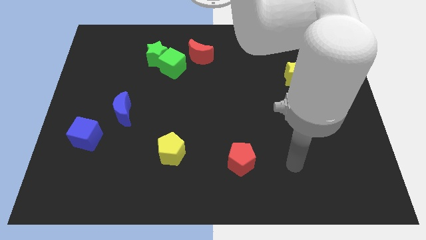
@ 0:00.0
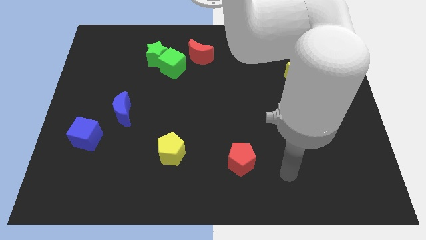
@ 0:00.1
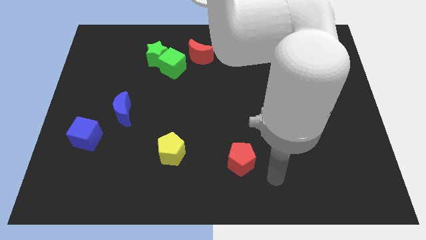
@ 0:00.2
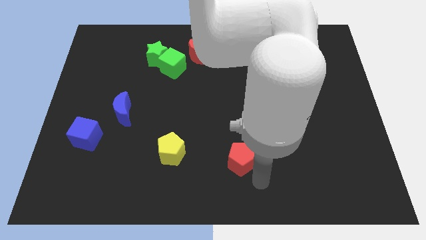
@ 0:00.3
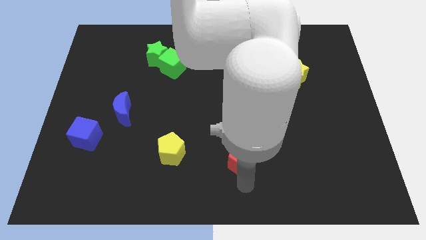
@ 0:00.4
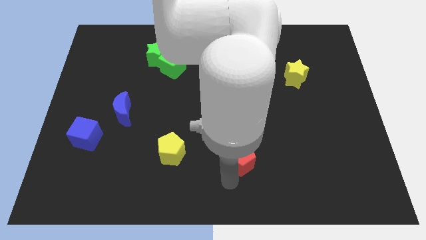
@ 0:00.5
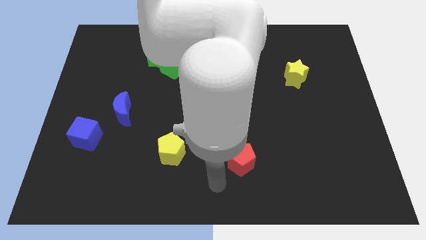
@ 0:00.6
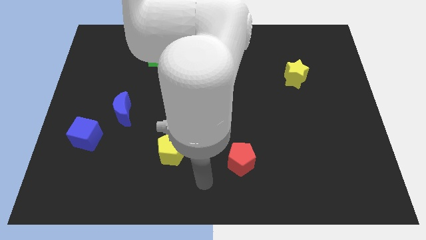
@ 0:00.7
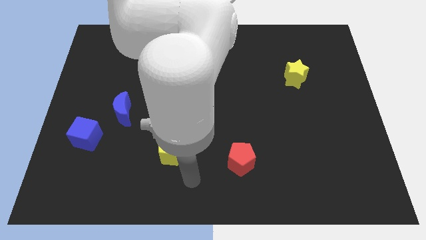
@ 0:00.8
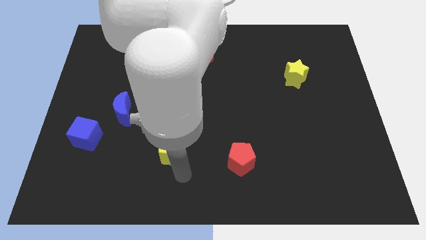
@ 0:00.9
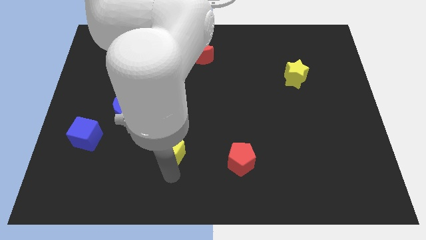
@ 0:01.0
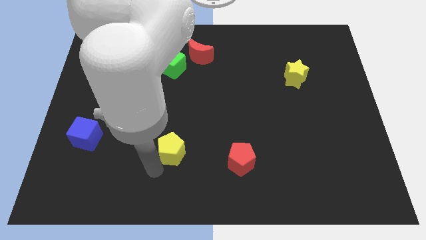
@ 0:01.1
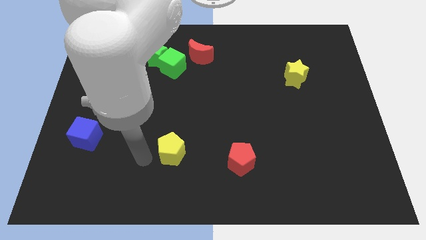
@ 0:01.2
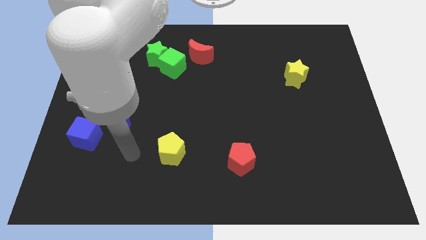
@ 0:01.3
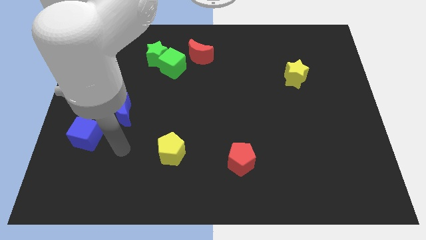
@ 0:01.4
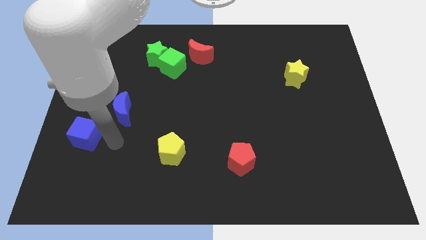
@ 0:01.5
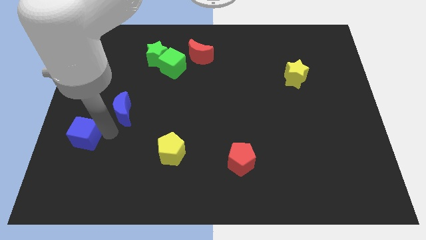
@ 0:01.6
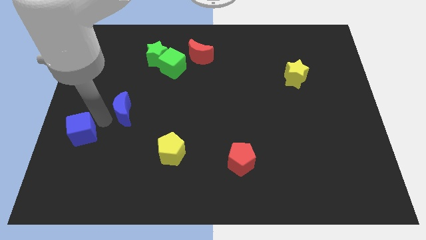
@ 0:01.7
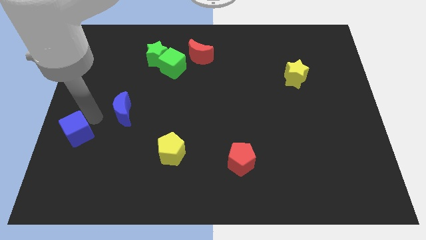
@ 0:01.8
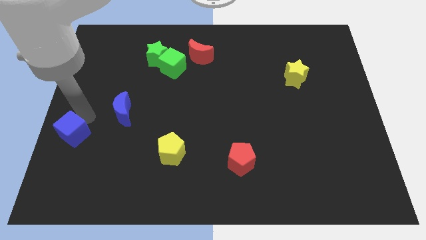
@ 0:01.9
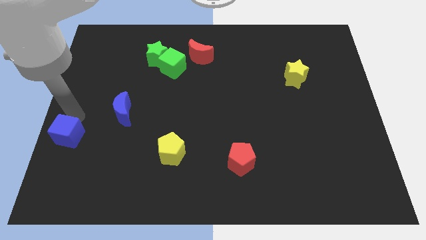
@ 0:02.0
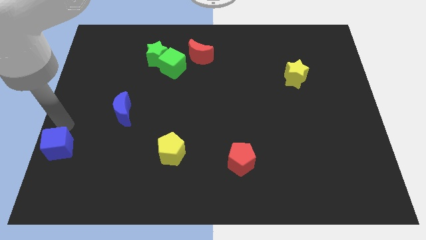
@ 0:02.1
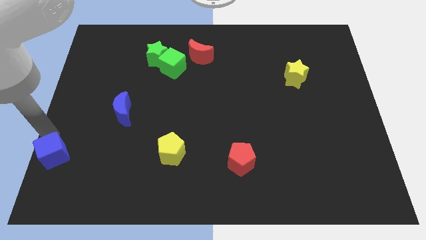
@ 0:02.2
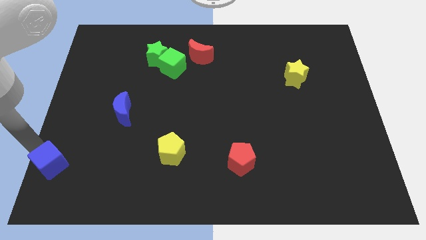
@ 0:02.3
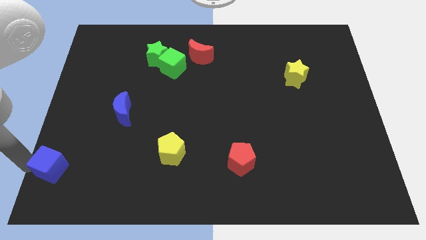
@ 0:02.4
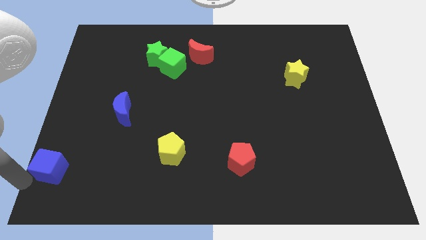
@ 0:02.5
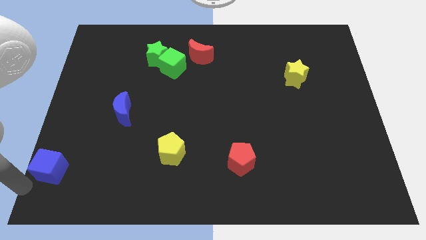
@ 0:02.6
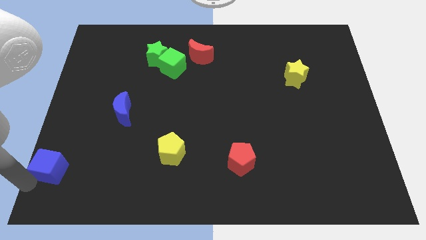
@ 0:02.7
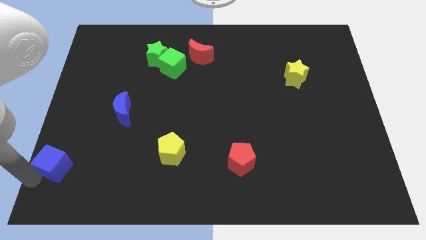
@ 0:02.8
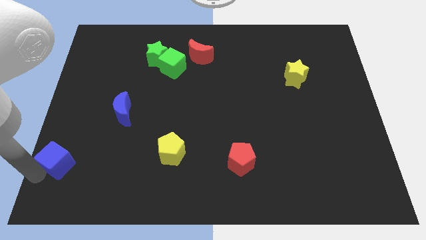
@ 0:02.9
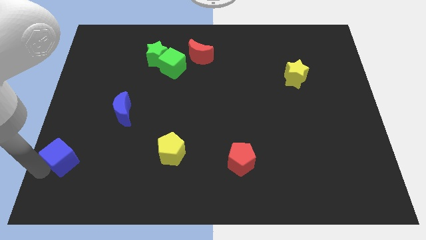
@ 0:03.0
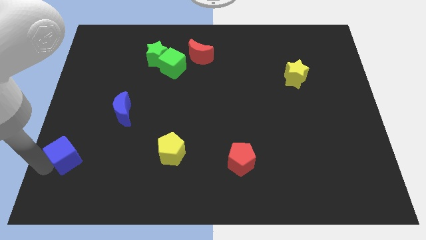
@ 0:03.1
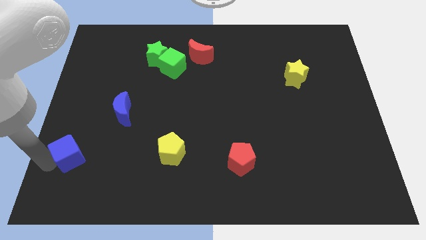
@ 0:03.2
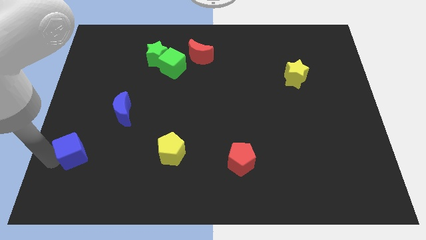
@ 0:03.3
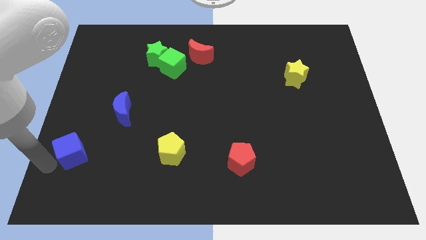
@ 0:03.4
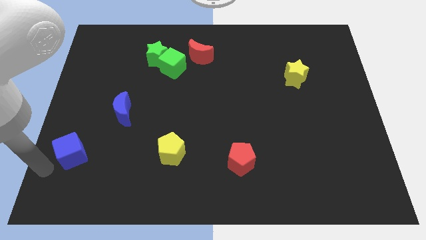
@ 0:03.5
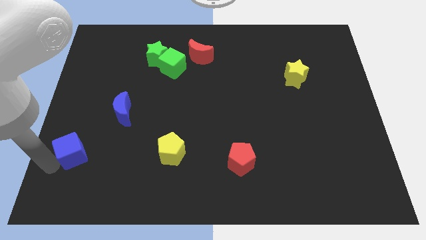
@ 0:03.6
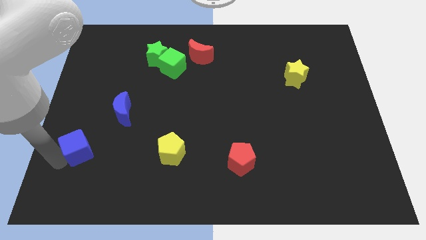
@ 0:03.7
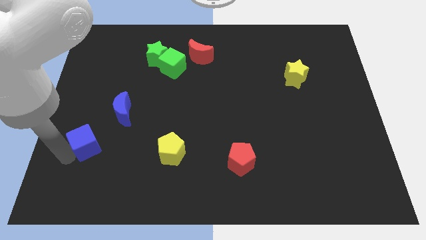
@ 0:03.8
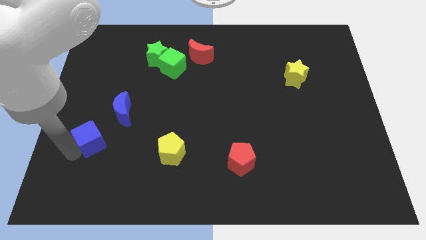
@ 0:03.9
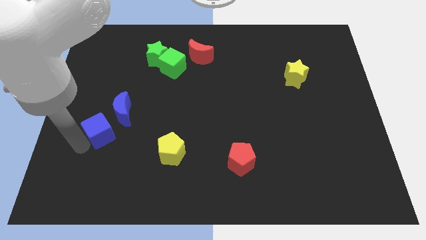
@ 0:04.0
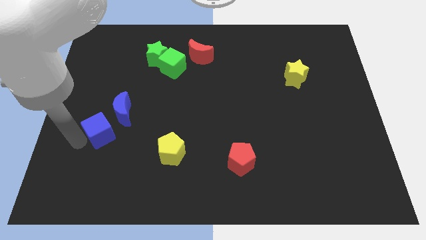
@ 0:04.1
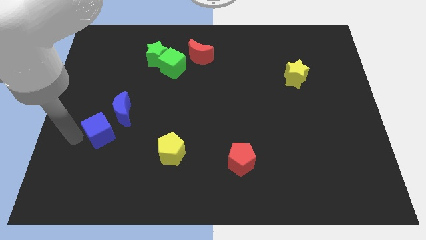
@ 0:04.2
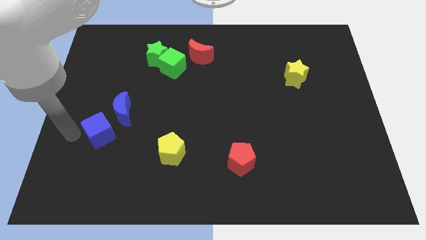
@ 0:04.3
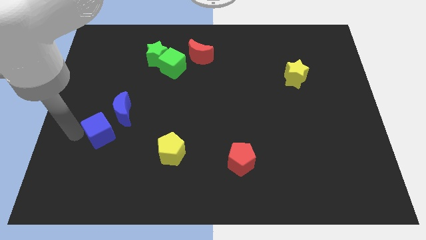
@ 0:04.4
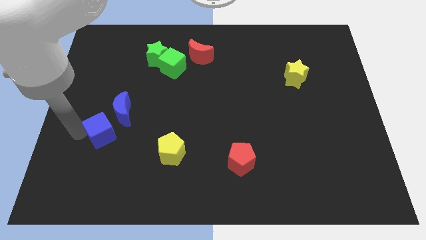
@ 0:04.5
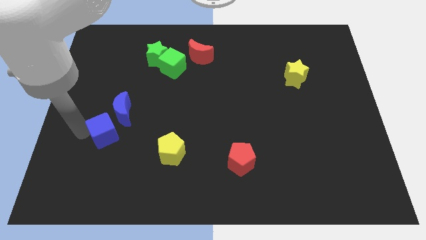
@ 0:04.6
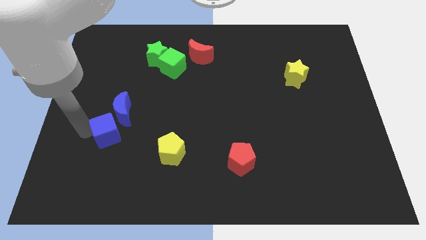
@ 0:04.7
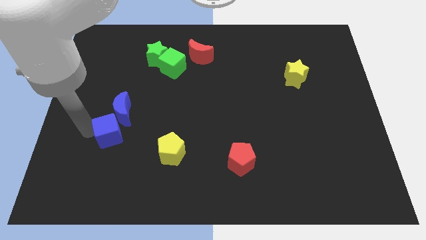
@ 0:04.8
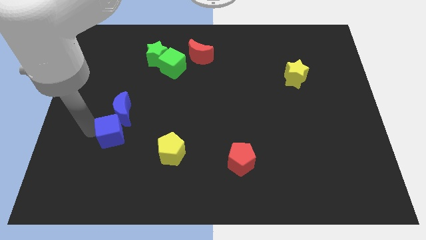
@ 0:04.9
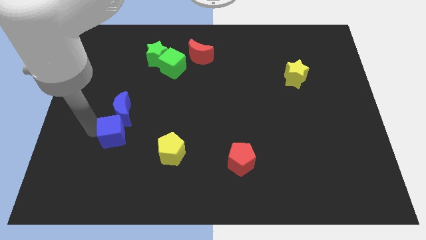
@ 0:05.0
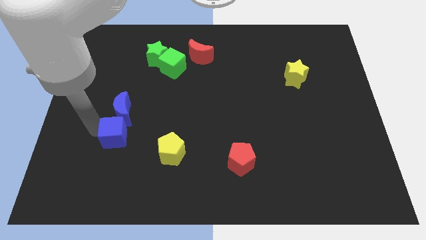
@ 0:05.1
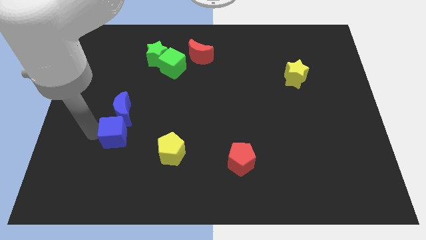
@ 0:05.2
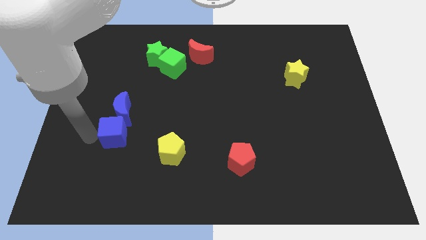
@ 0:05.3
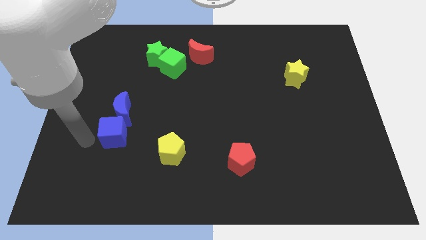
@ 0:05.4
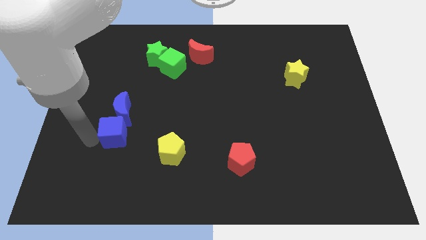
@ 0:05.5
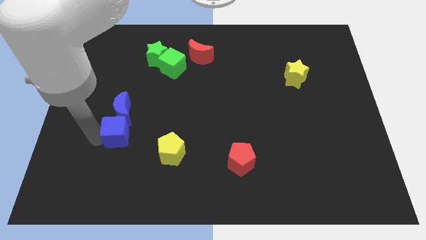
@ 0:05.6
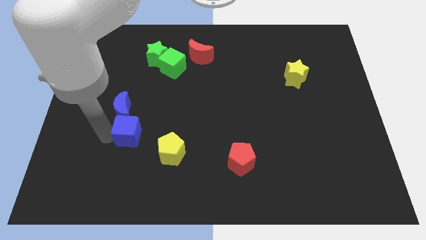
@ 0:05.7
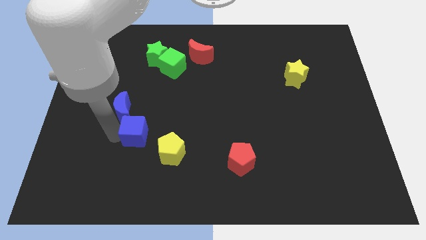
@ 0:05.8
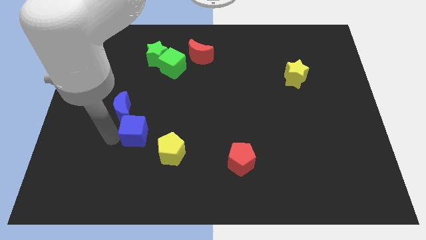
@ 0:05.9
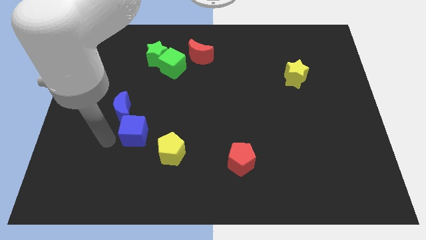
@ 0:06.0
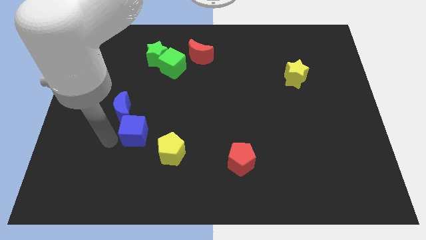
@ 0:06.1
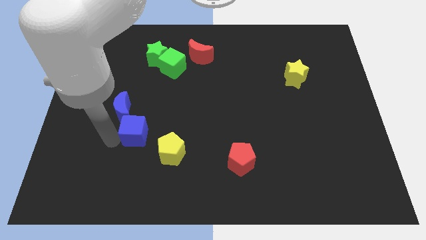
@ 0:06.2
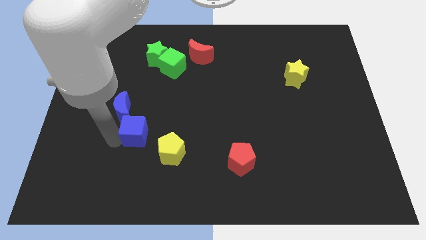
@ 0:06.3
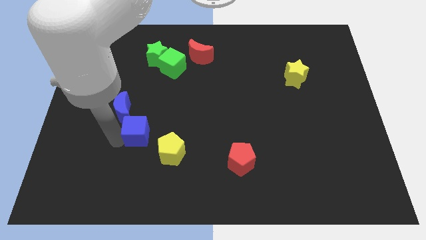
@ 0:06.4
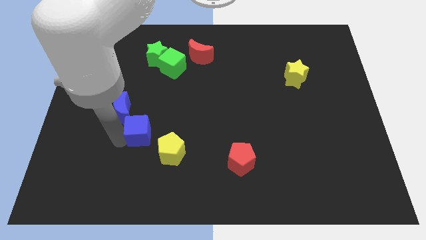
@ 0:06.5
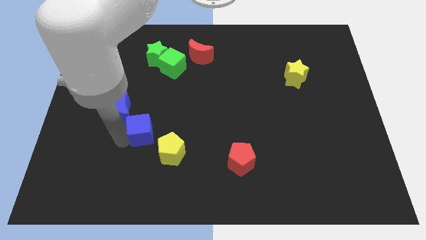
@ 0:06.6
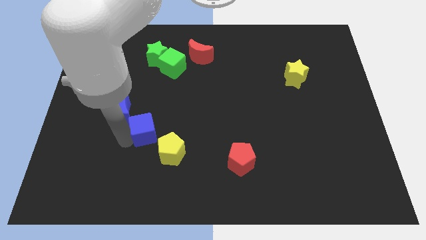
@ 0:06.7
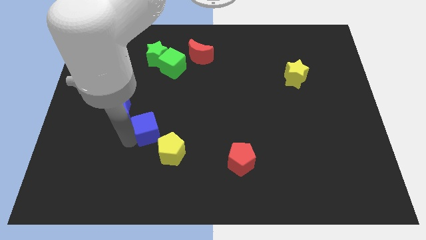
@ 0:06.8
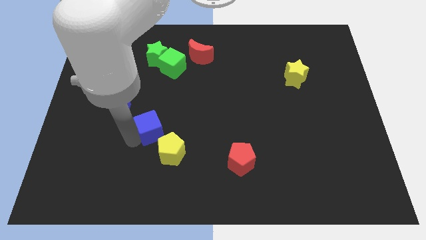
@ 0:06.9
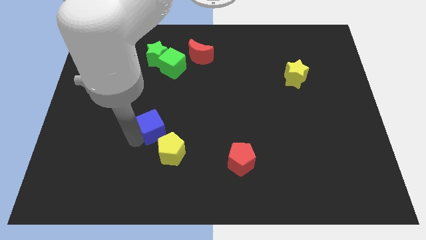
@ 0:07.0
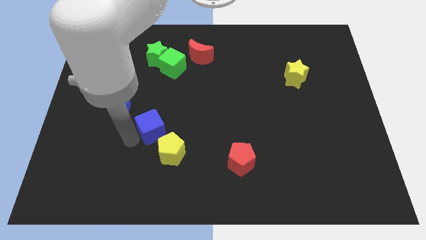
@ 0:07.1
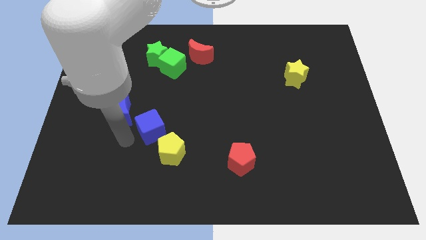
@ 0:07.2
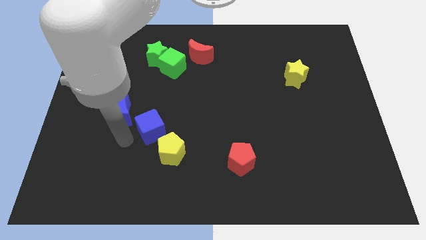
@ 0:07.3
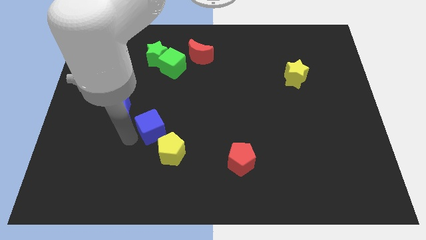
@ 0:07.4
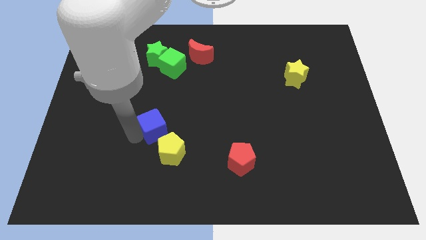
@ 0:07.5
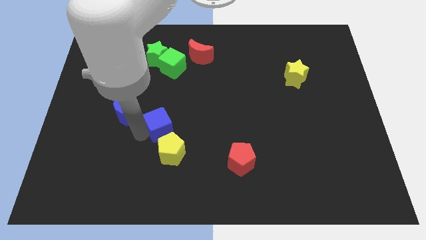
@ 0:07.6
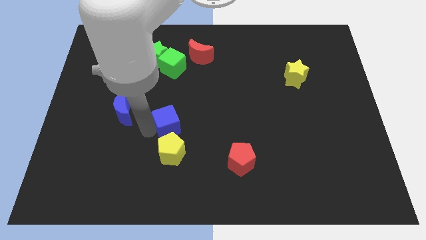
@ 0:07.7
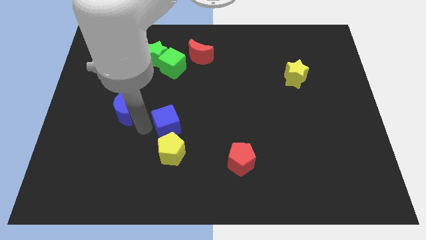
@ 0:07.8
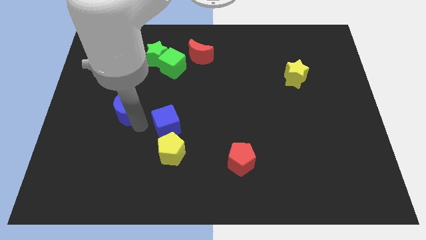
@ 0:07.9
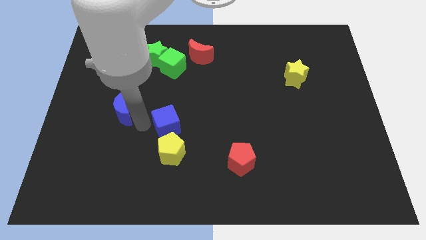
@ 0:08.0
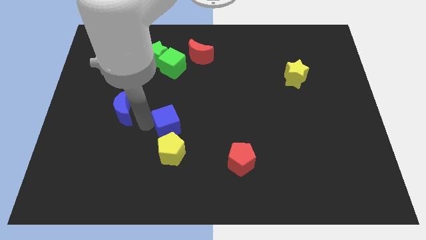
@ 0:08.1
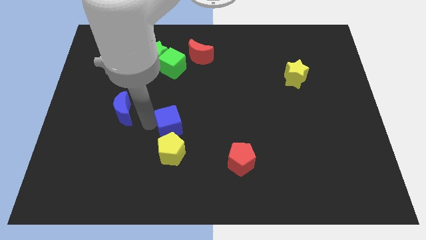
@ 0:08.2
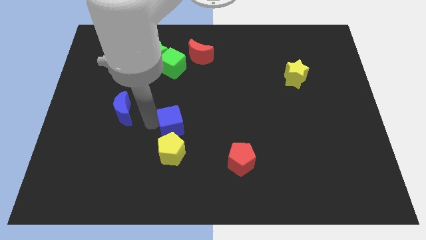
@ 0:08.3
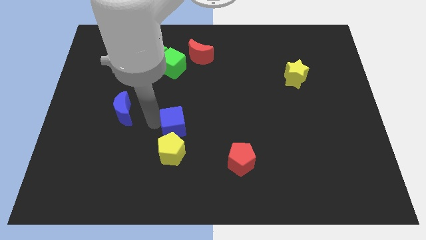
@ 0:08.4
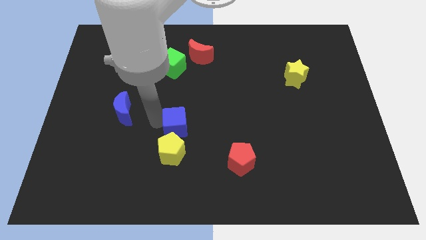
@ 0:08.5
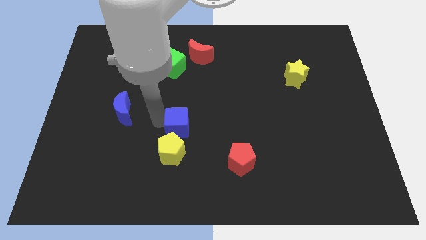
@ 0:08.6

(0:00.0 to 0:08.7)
slide the blue cube to the right
